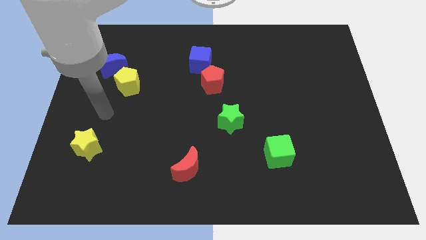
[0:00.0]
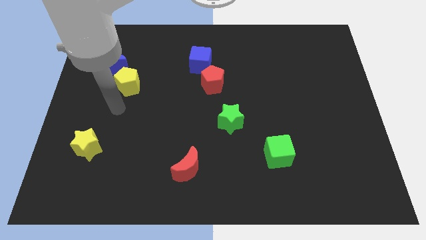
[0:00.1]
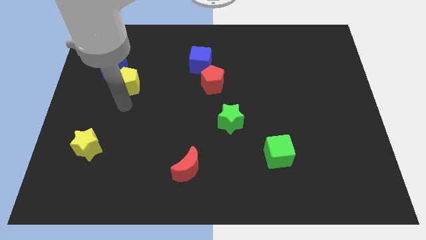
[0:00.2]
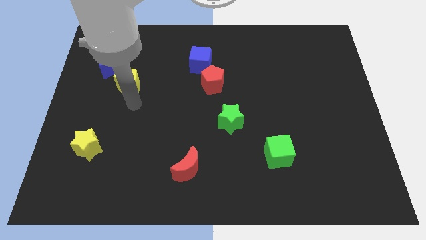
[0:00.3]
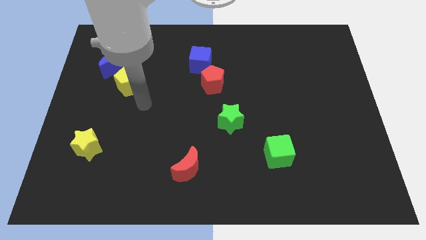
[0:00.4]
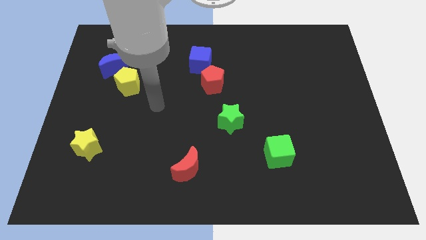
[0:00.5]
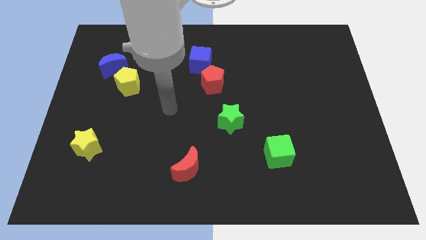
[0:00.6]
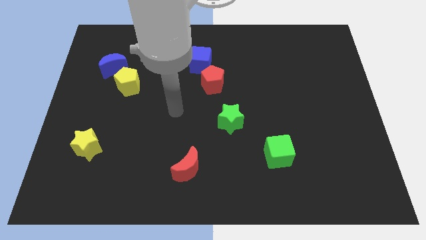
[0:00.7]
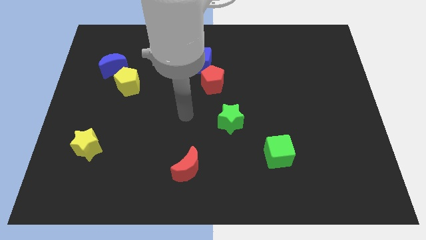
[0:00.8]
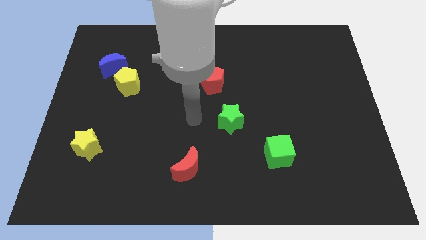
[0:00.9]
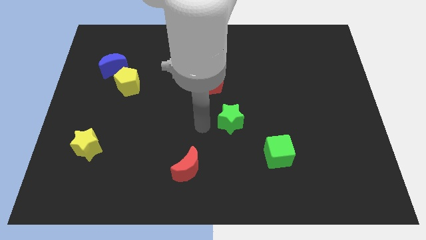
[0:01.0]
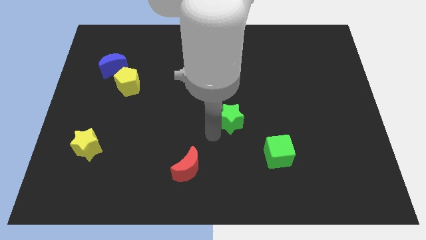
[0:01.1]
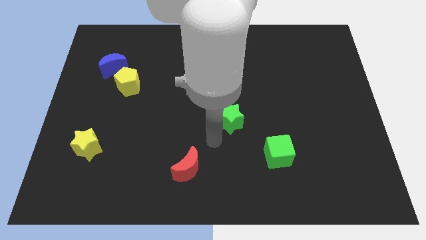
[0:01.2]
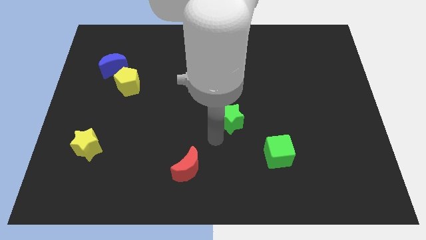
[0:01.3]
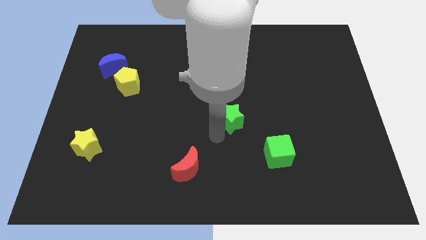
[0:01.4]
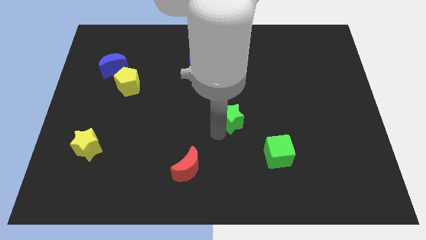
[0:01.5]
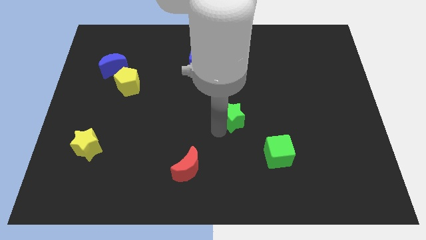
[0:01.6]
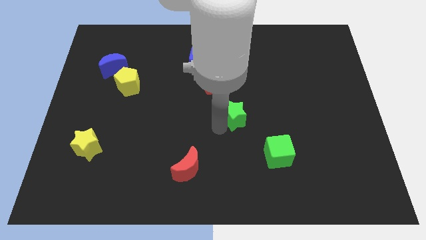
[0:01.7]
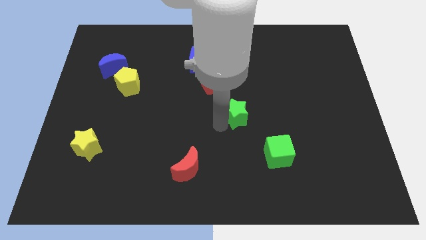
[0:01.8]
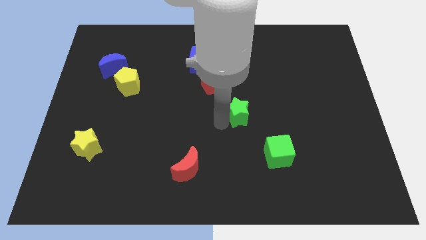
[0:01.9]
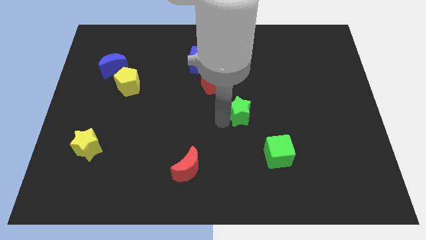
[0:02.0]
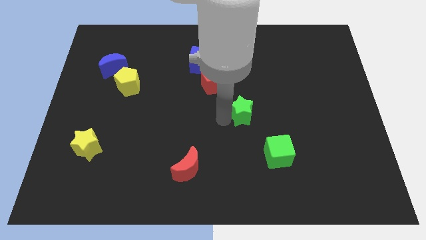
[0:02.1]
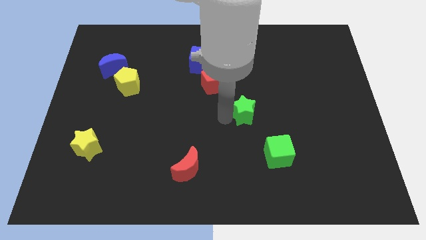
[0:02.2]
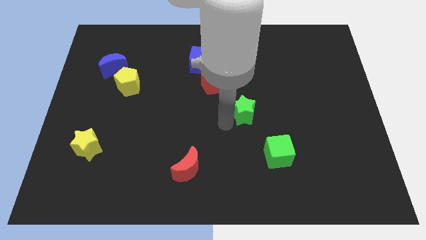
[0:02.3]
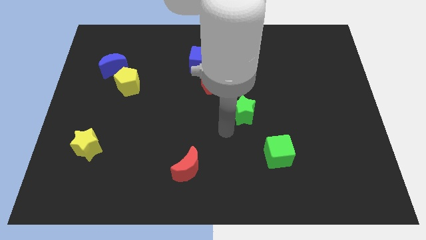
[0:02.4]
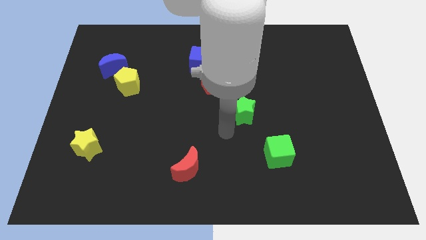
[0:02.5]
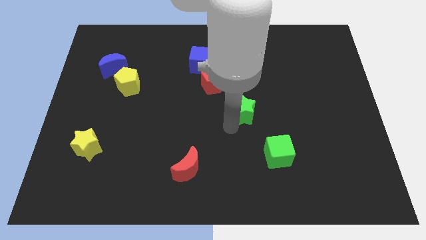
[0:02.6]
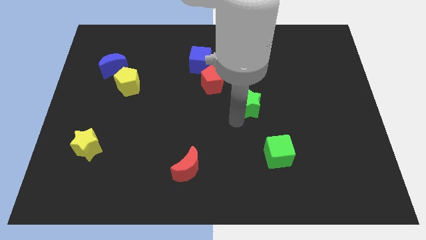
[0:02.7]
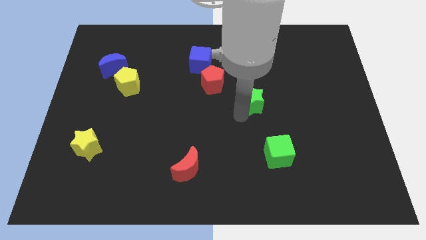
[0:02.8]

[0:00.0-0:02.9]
slightly slide the green star upwards and to the right

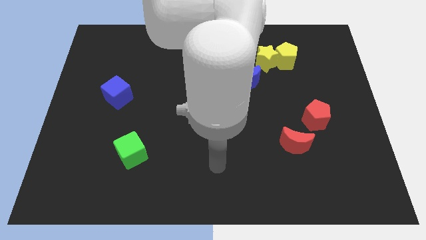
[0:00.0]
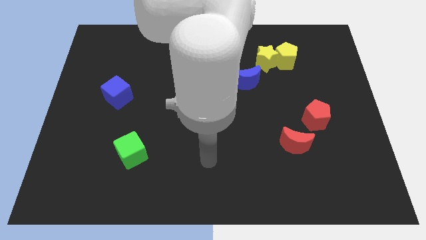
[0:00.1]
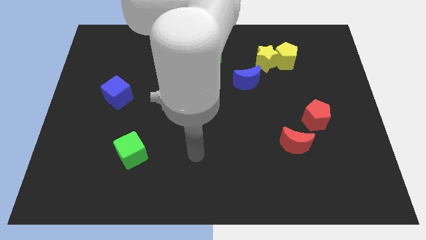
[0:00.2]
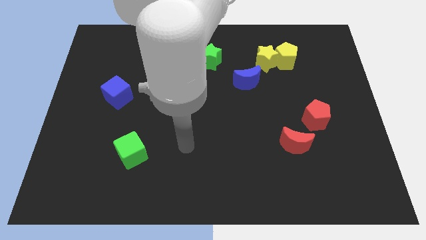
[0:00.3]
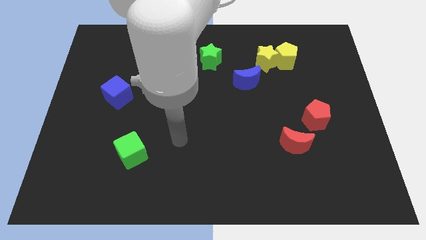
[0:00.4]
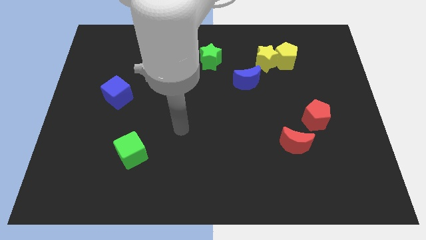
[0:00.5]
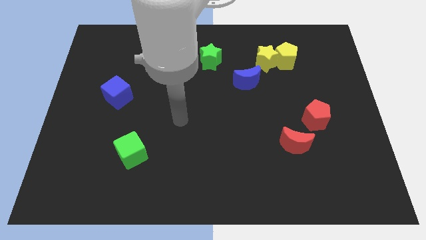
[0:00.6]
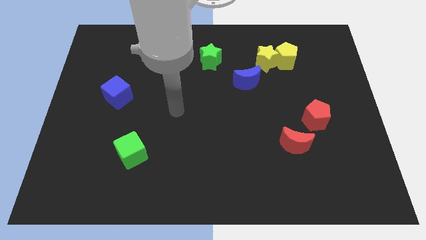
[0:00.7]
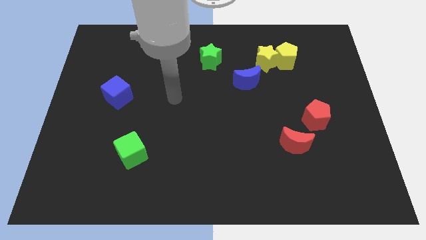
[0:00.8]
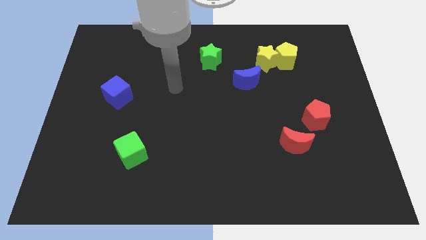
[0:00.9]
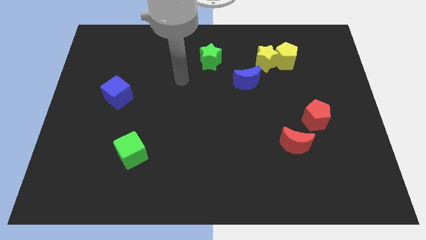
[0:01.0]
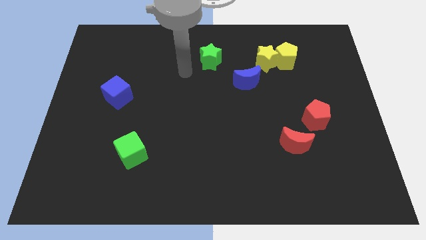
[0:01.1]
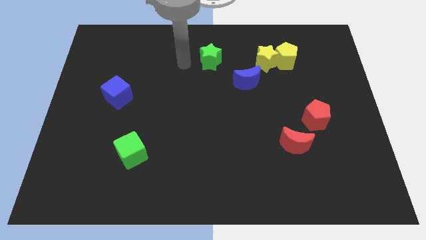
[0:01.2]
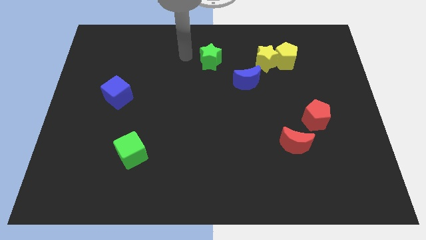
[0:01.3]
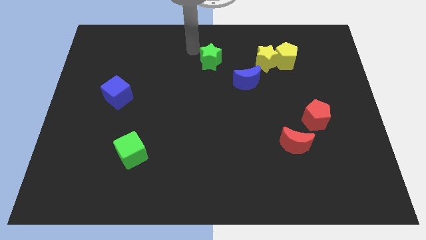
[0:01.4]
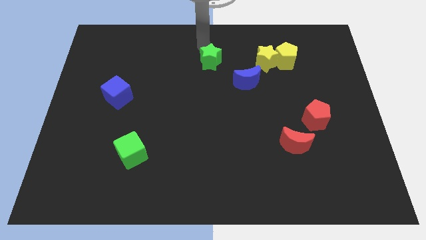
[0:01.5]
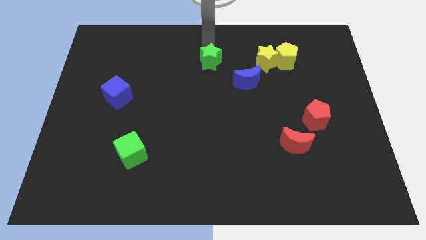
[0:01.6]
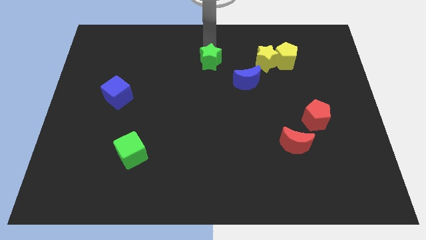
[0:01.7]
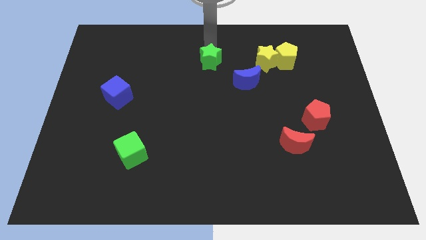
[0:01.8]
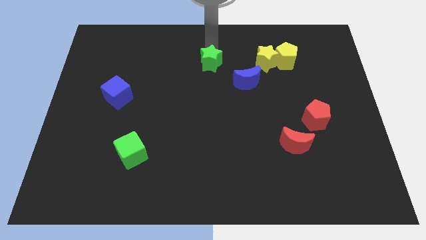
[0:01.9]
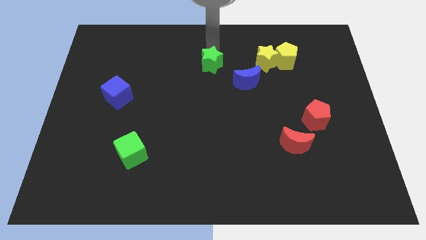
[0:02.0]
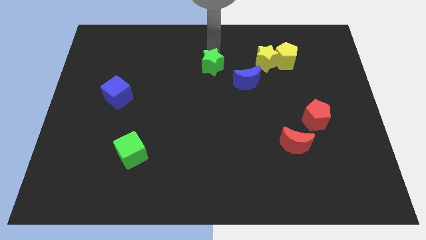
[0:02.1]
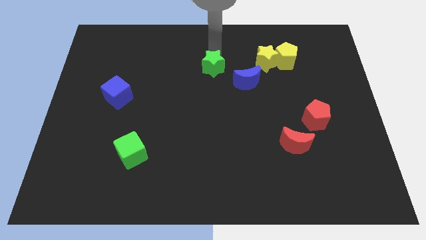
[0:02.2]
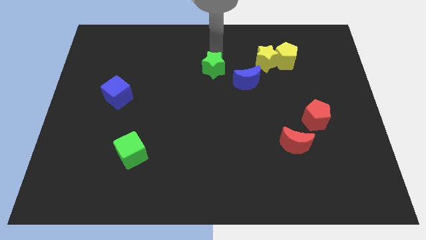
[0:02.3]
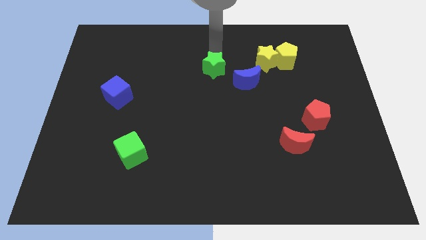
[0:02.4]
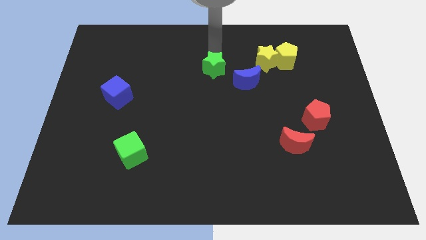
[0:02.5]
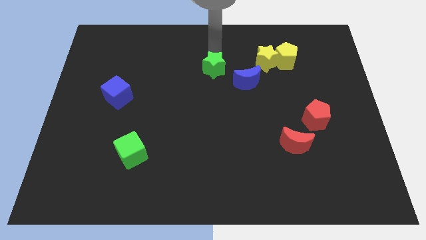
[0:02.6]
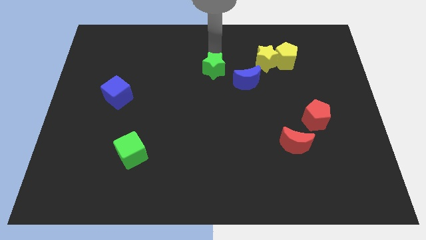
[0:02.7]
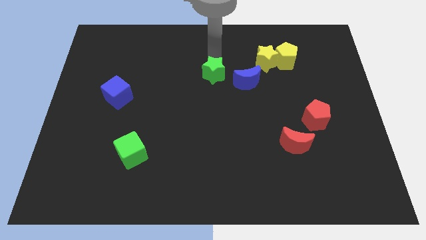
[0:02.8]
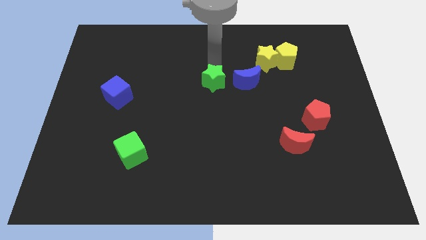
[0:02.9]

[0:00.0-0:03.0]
push the green star a little bit down

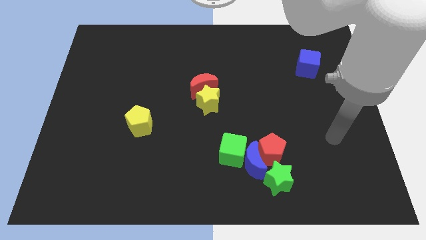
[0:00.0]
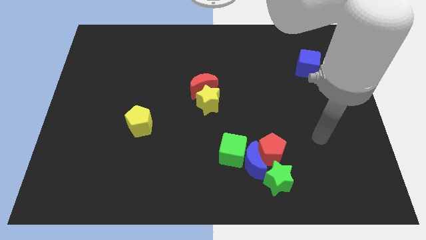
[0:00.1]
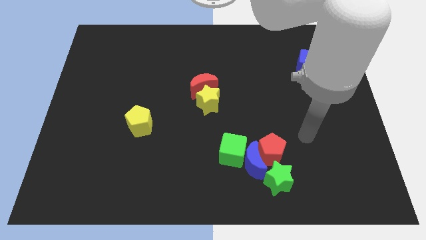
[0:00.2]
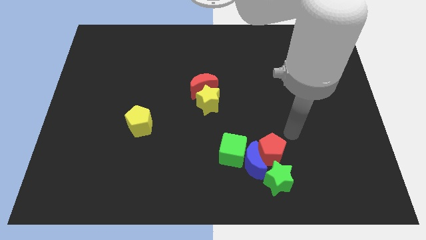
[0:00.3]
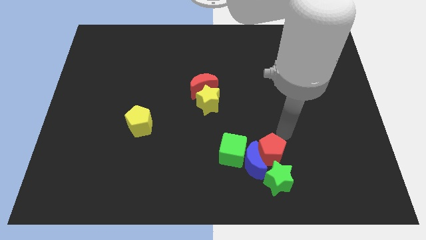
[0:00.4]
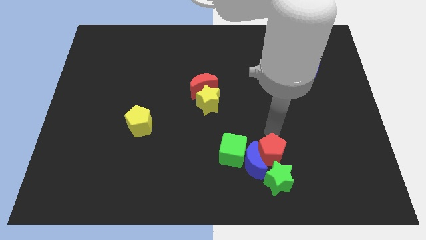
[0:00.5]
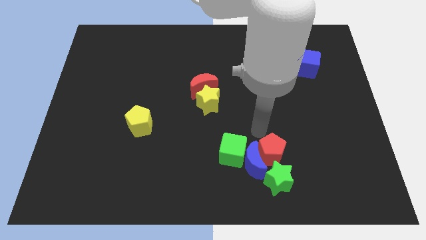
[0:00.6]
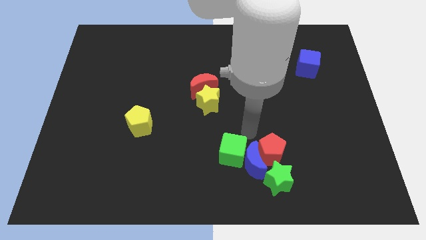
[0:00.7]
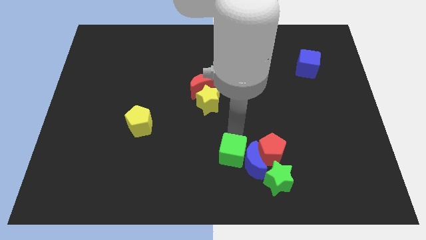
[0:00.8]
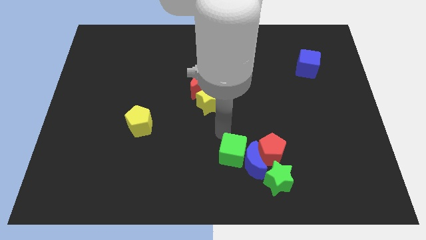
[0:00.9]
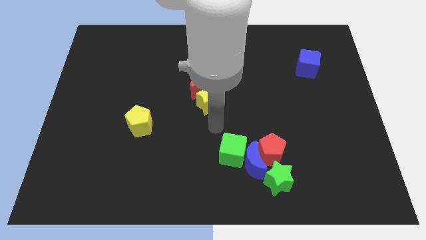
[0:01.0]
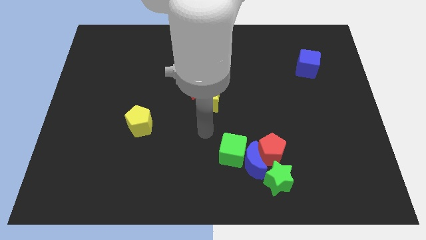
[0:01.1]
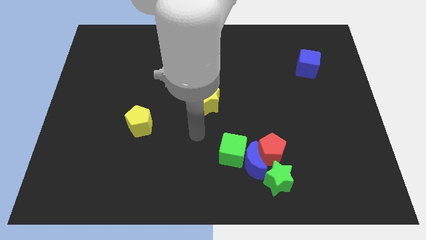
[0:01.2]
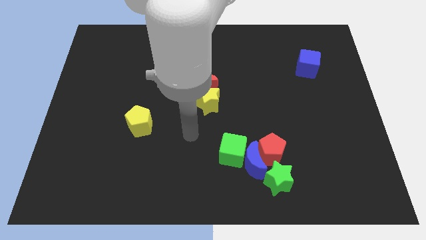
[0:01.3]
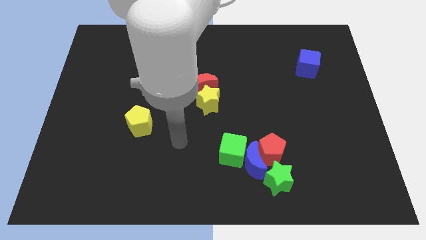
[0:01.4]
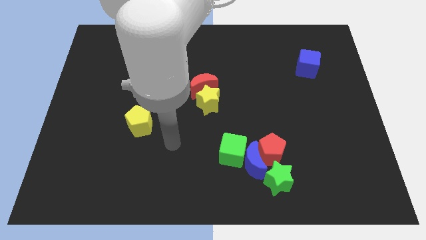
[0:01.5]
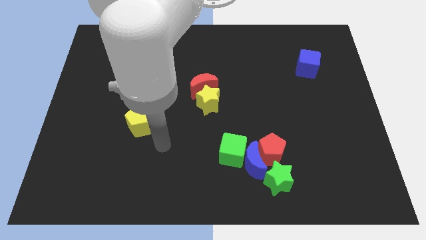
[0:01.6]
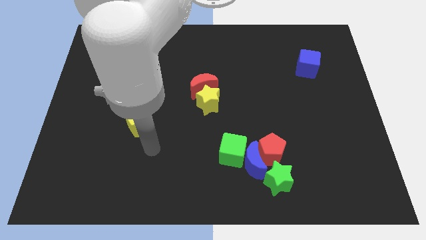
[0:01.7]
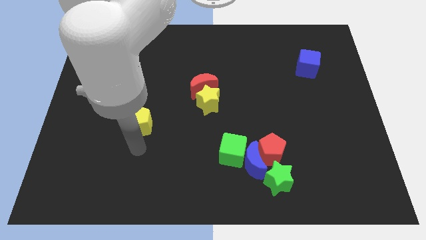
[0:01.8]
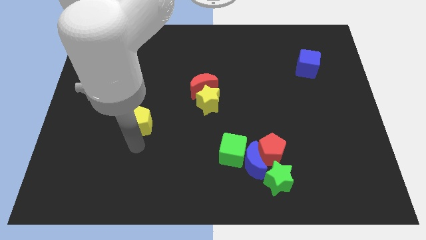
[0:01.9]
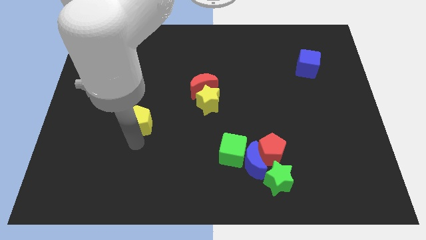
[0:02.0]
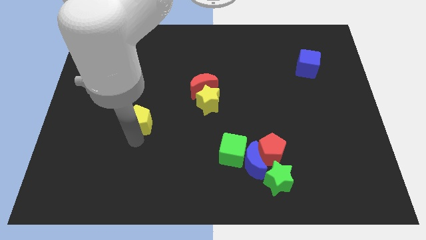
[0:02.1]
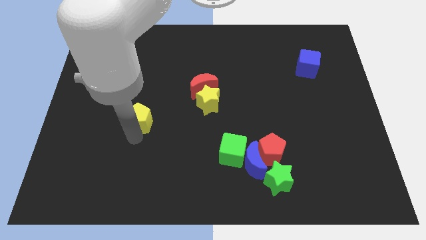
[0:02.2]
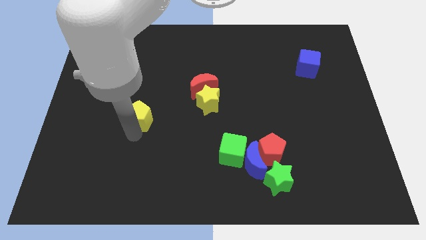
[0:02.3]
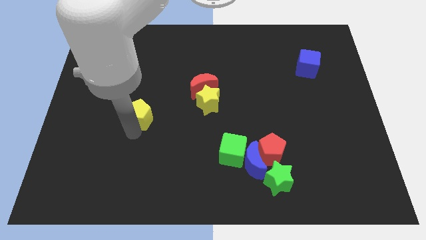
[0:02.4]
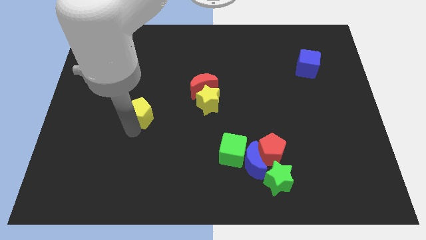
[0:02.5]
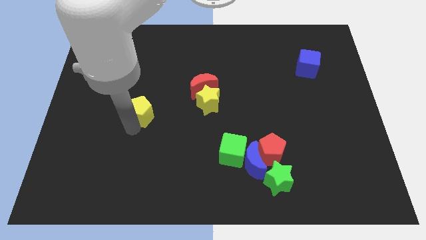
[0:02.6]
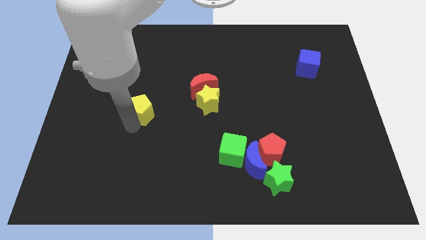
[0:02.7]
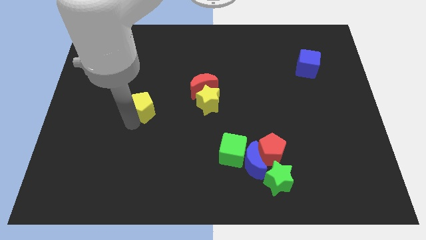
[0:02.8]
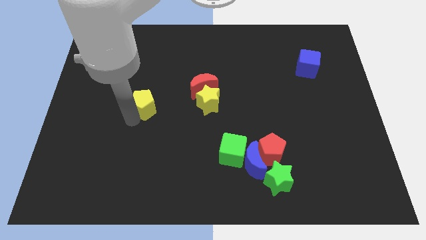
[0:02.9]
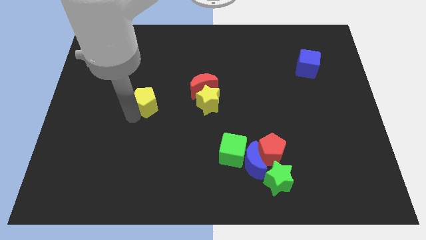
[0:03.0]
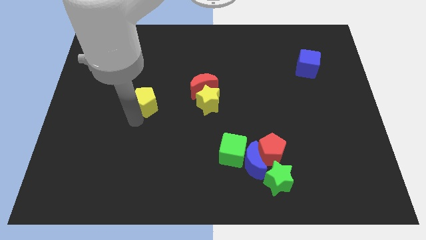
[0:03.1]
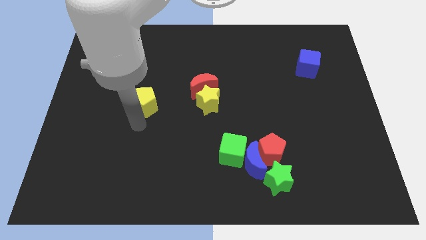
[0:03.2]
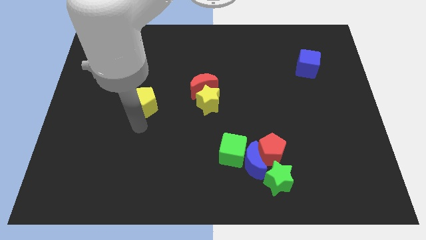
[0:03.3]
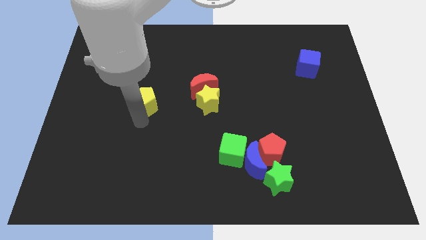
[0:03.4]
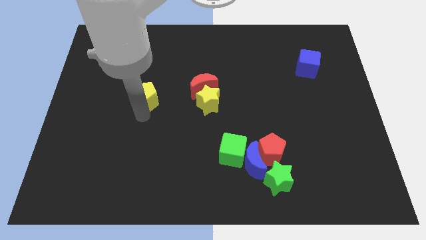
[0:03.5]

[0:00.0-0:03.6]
slide the yellow pentagon up a little bit
